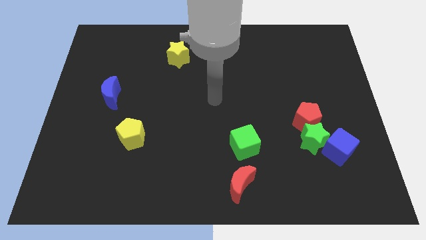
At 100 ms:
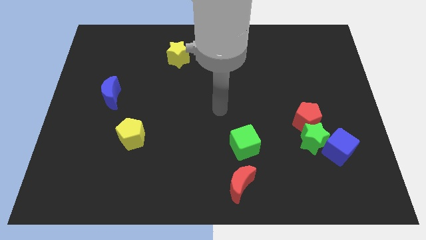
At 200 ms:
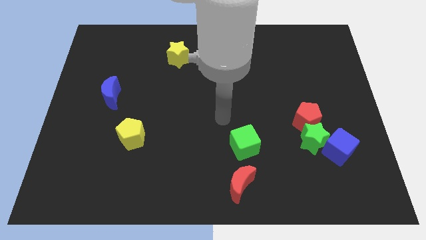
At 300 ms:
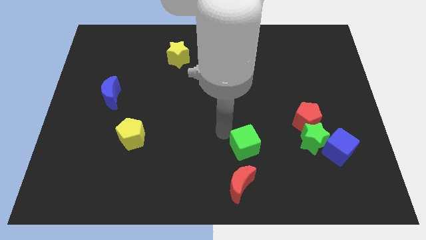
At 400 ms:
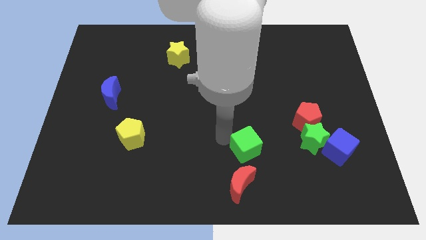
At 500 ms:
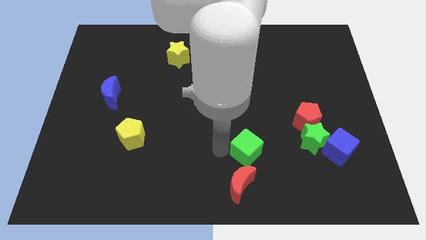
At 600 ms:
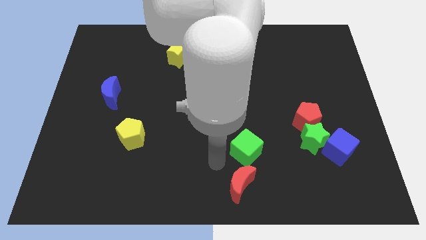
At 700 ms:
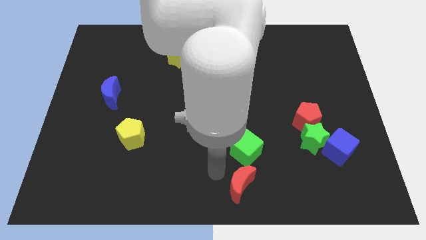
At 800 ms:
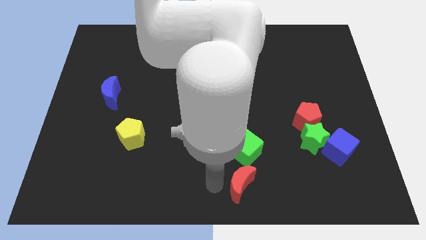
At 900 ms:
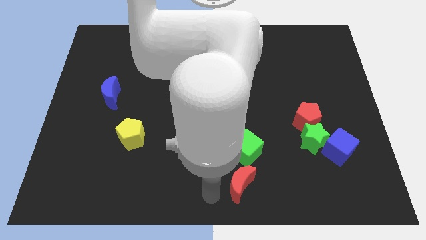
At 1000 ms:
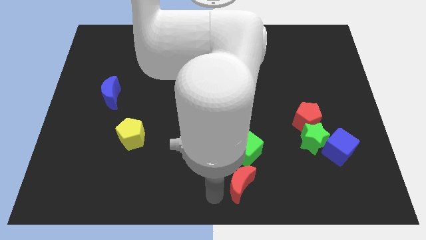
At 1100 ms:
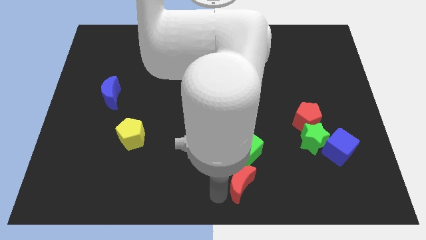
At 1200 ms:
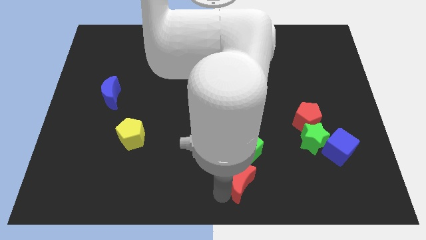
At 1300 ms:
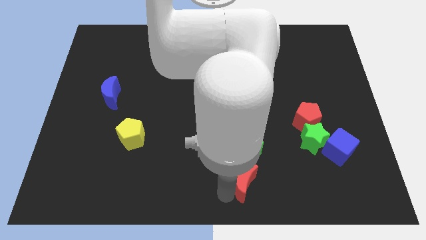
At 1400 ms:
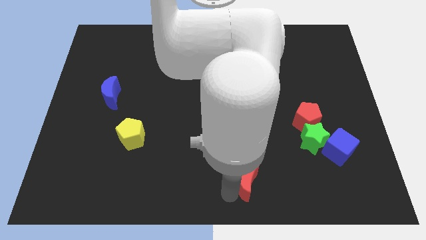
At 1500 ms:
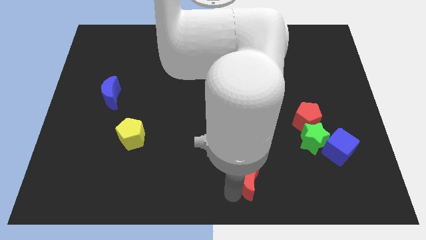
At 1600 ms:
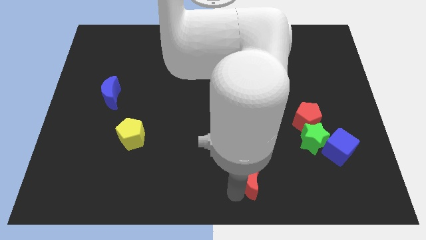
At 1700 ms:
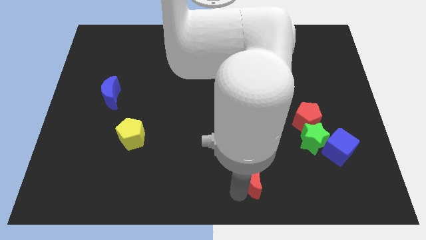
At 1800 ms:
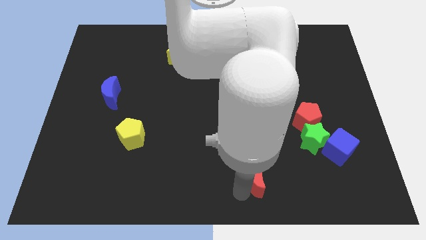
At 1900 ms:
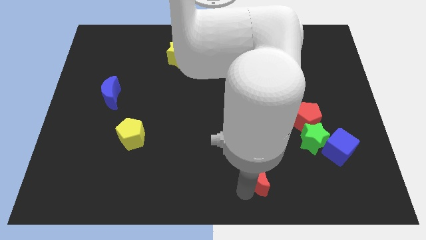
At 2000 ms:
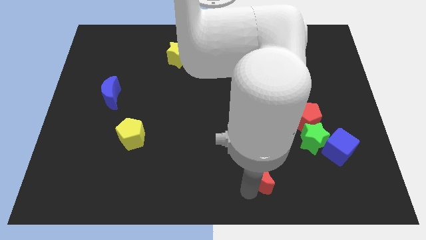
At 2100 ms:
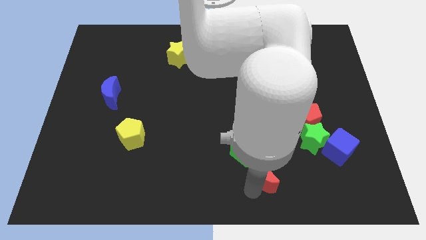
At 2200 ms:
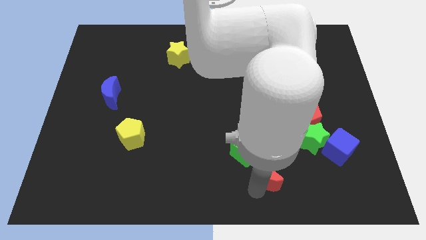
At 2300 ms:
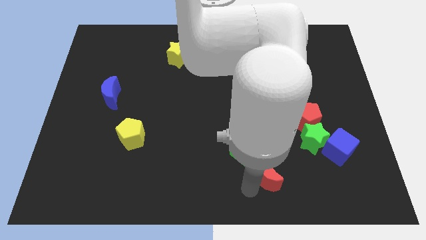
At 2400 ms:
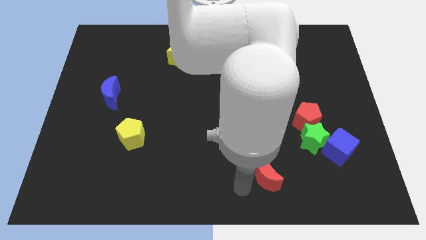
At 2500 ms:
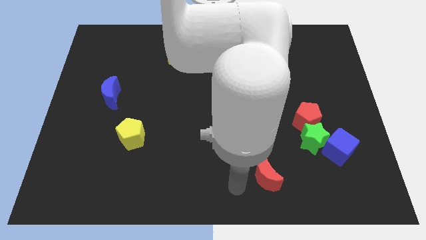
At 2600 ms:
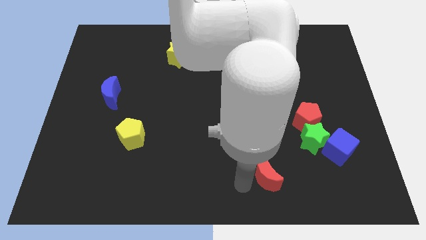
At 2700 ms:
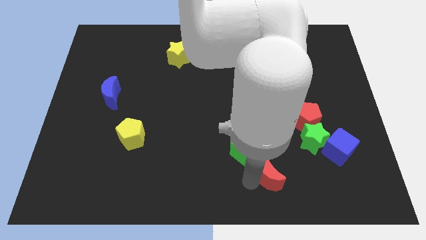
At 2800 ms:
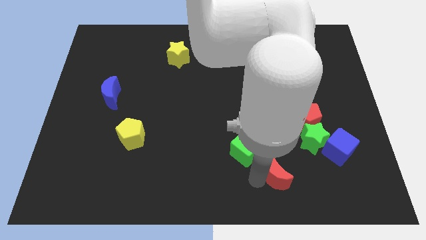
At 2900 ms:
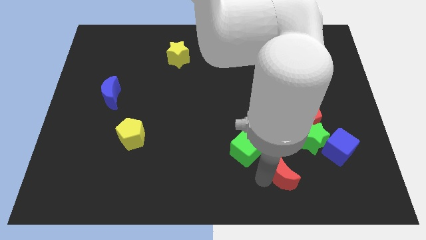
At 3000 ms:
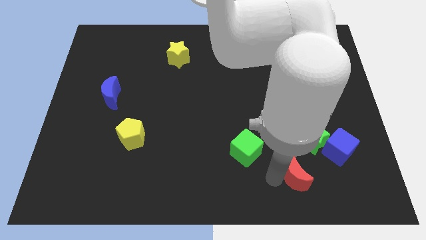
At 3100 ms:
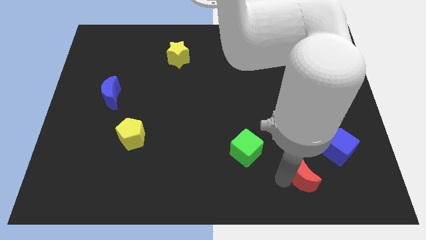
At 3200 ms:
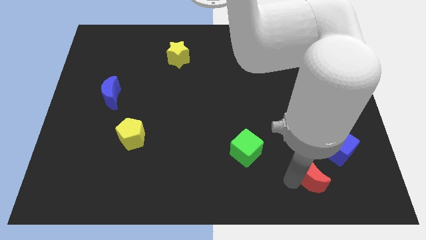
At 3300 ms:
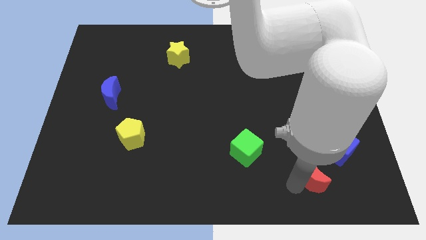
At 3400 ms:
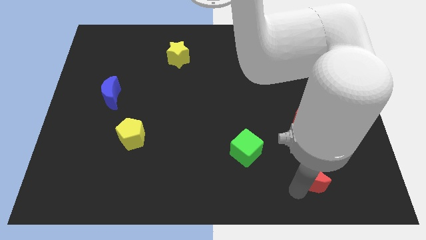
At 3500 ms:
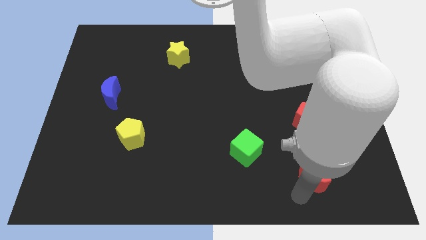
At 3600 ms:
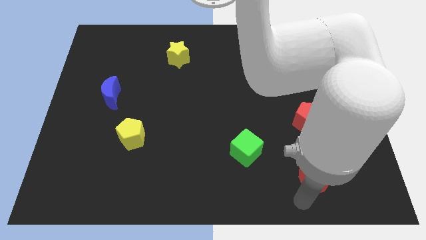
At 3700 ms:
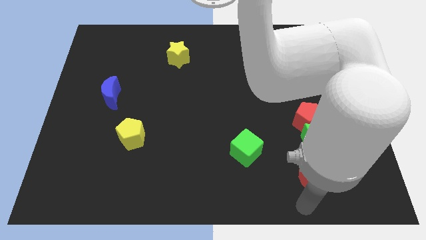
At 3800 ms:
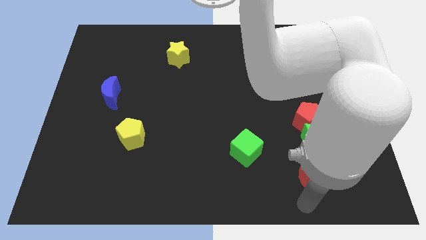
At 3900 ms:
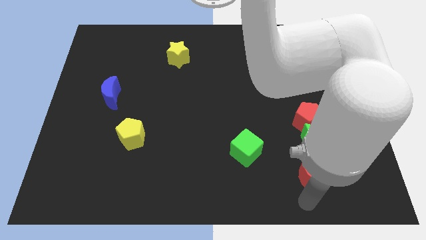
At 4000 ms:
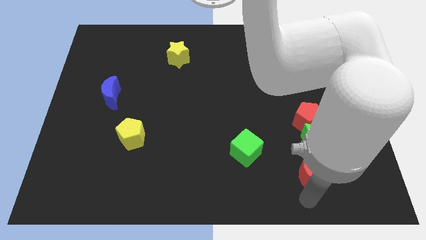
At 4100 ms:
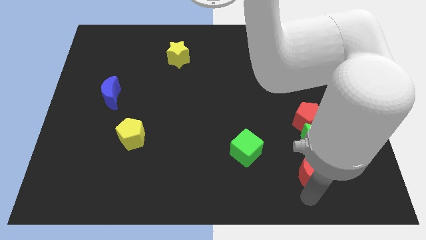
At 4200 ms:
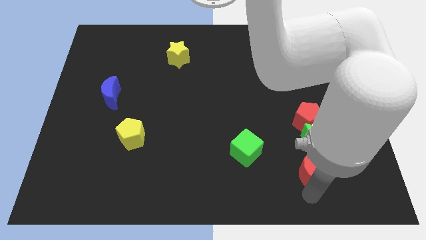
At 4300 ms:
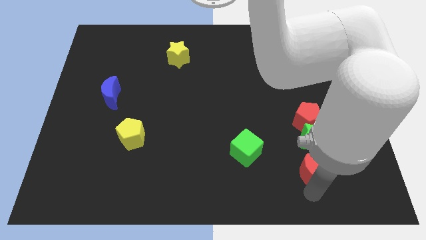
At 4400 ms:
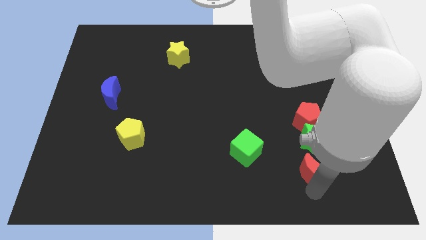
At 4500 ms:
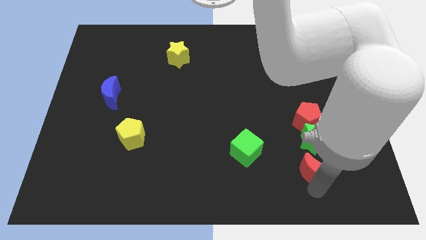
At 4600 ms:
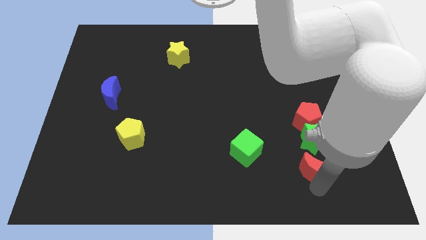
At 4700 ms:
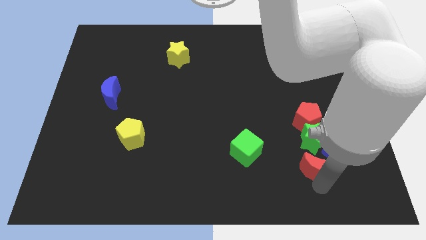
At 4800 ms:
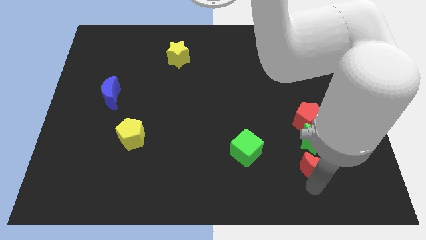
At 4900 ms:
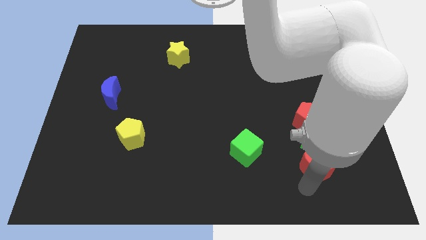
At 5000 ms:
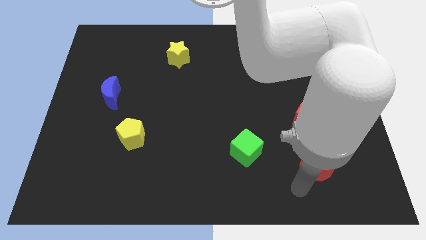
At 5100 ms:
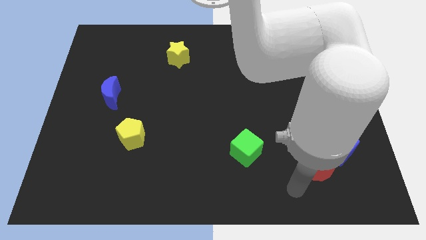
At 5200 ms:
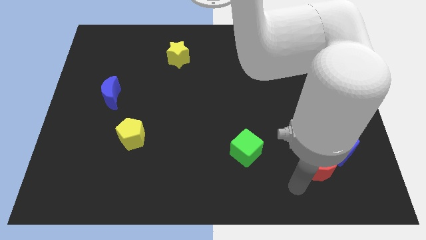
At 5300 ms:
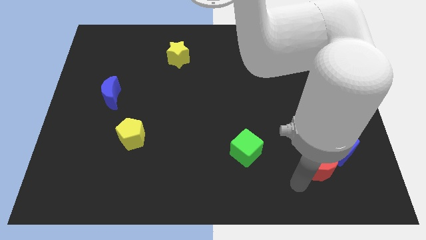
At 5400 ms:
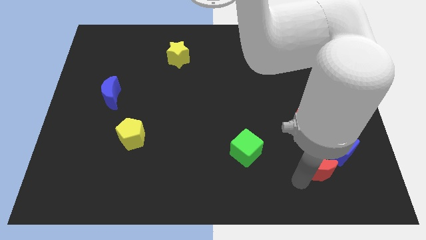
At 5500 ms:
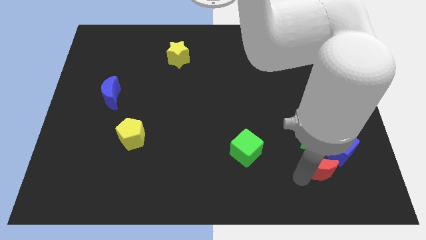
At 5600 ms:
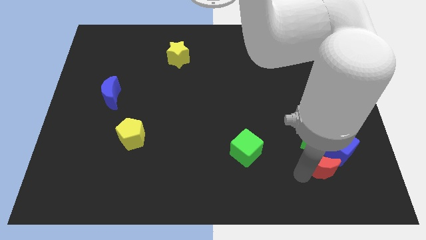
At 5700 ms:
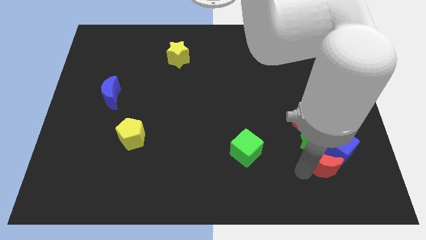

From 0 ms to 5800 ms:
put the red moon to the blue cube

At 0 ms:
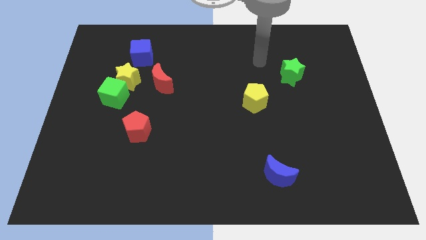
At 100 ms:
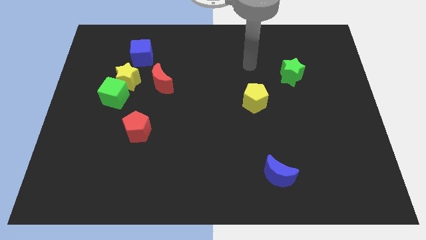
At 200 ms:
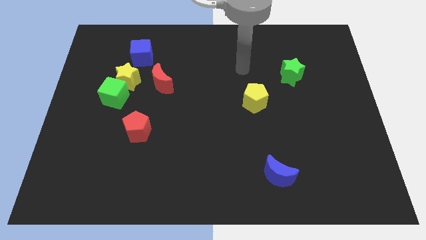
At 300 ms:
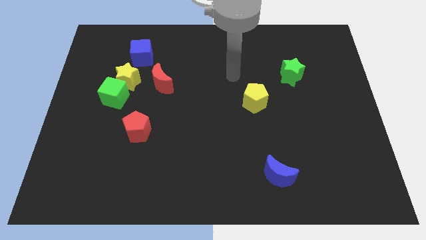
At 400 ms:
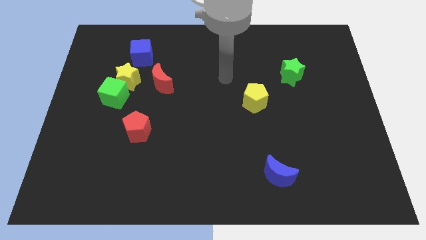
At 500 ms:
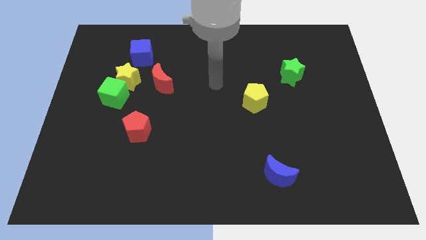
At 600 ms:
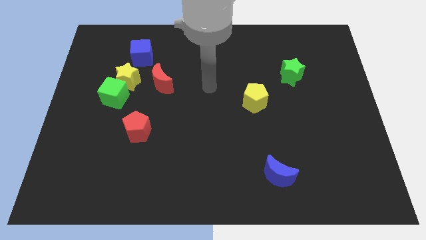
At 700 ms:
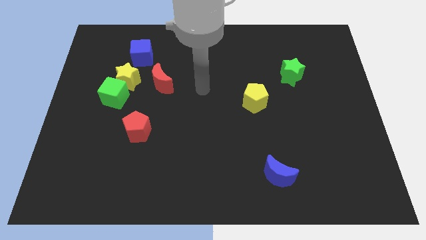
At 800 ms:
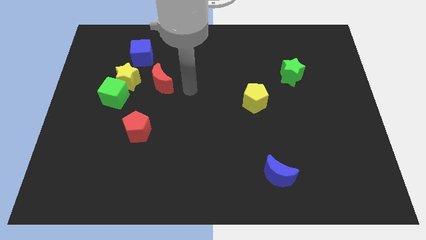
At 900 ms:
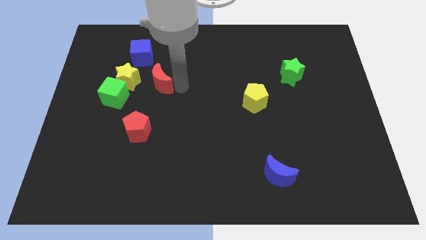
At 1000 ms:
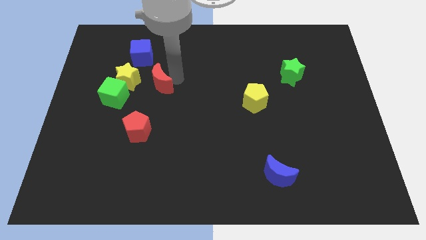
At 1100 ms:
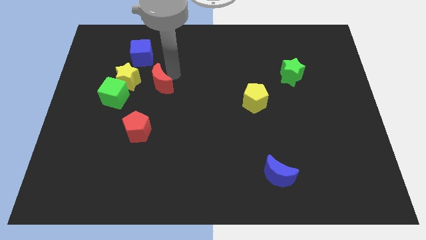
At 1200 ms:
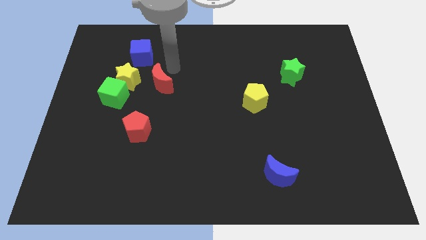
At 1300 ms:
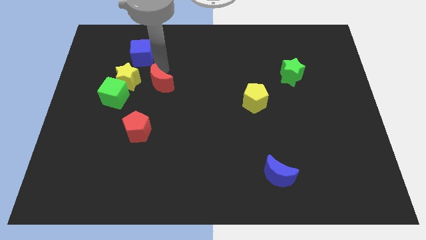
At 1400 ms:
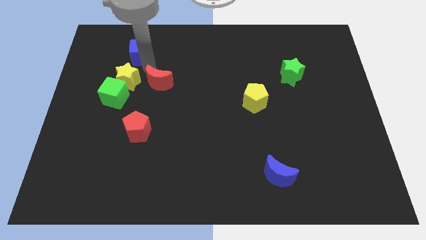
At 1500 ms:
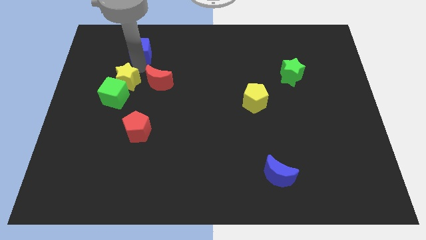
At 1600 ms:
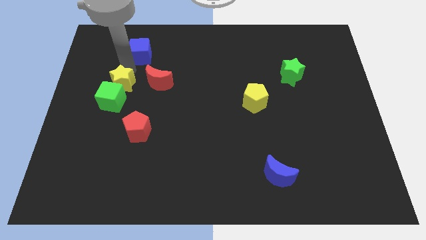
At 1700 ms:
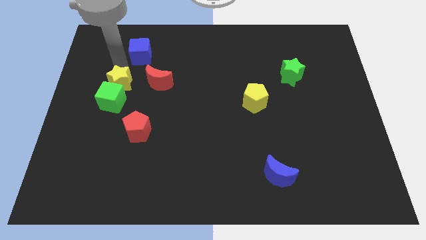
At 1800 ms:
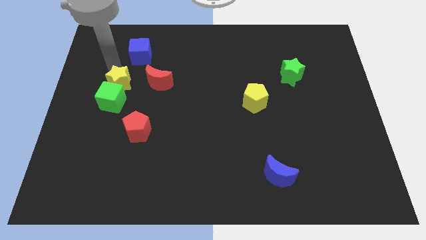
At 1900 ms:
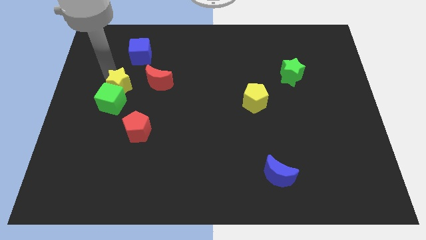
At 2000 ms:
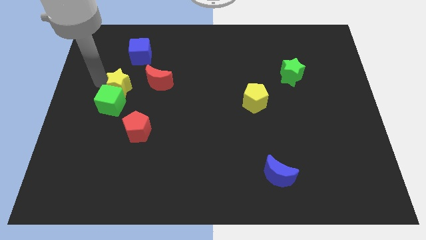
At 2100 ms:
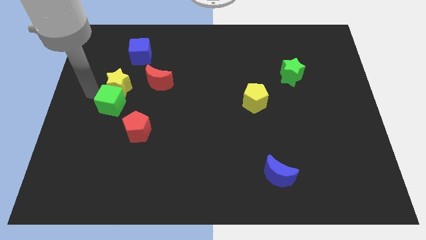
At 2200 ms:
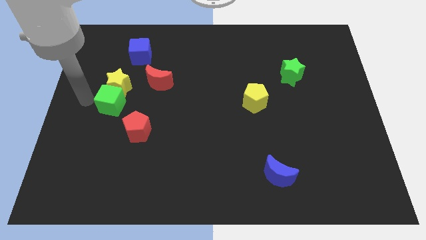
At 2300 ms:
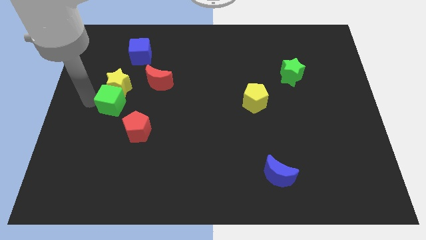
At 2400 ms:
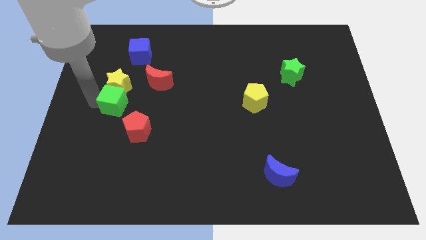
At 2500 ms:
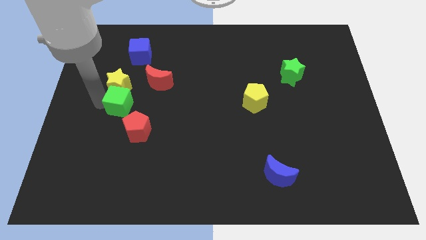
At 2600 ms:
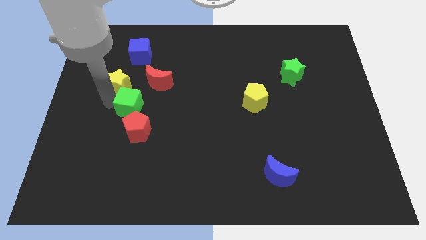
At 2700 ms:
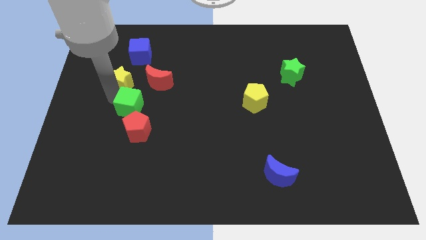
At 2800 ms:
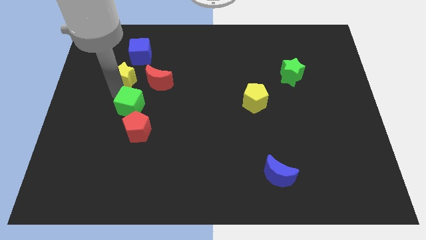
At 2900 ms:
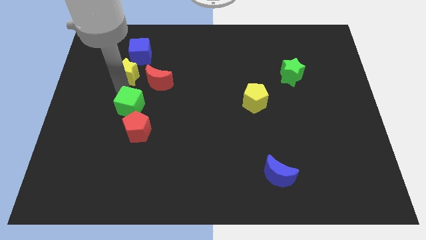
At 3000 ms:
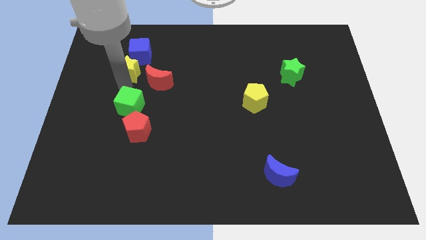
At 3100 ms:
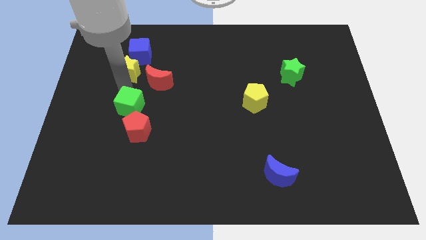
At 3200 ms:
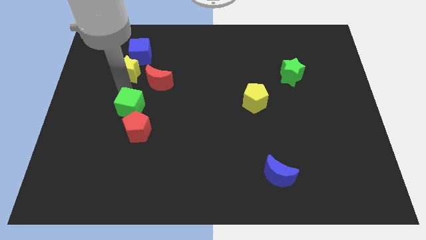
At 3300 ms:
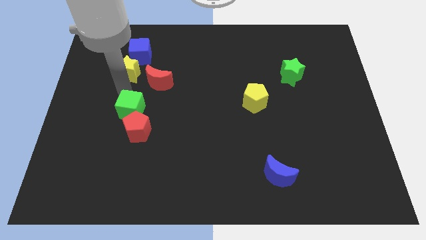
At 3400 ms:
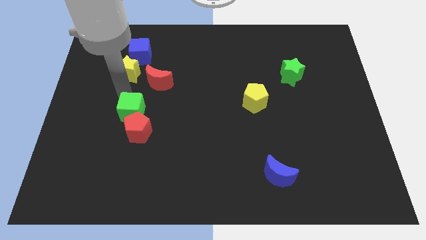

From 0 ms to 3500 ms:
slide the green cube next to the red pentagon
